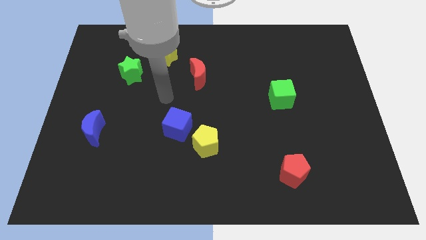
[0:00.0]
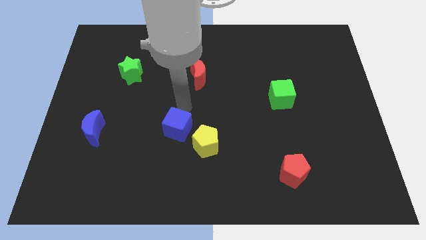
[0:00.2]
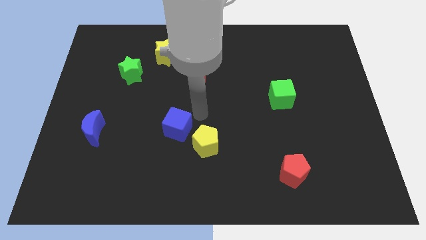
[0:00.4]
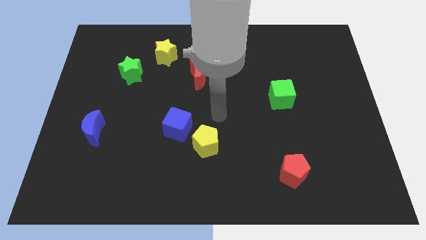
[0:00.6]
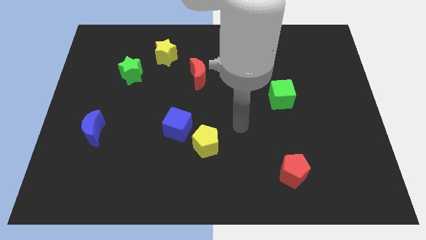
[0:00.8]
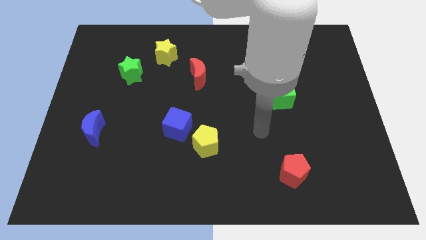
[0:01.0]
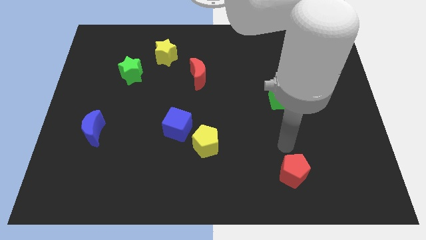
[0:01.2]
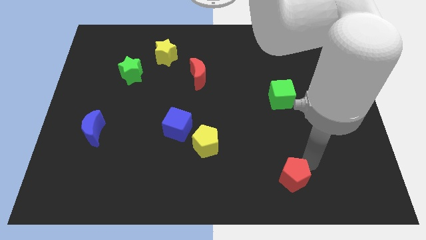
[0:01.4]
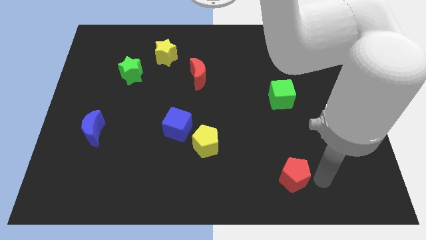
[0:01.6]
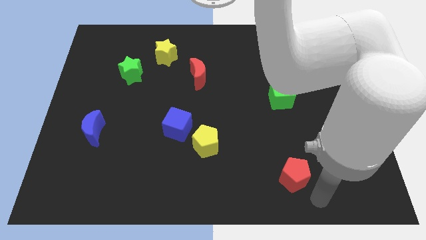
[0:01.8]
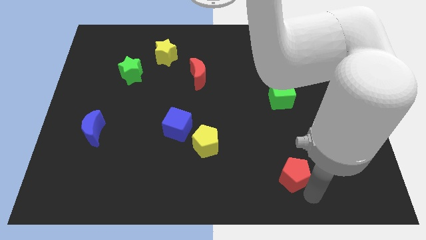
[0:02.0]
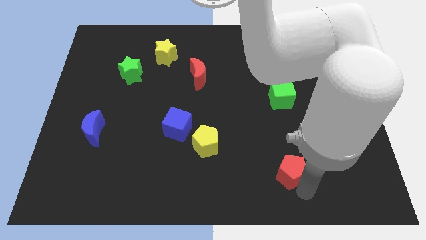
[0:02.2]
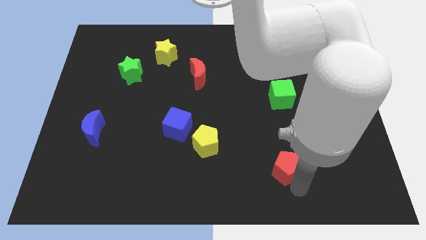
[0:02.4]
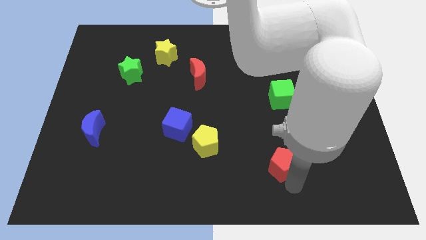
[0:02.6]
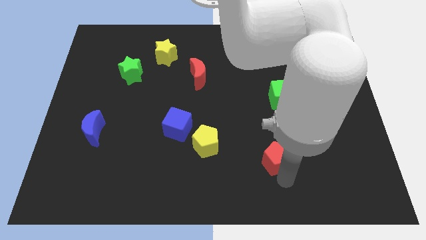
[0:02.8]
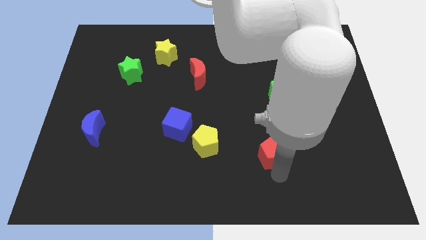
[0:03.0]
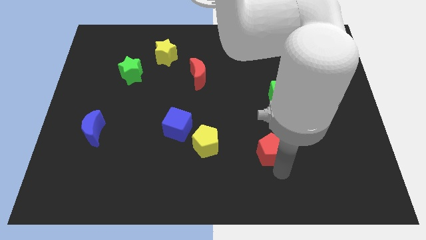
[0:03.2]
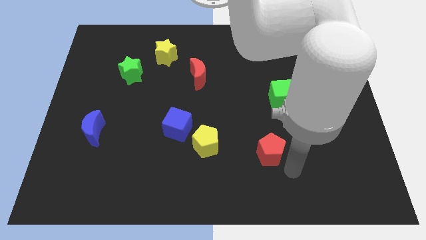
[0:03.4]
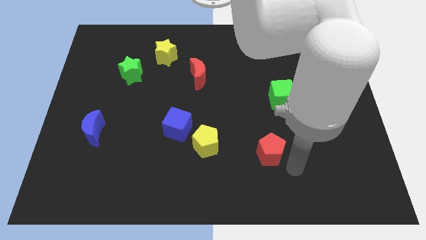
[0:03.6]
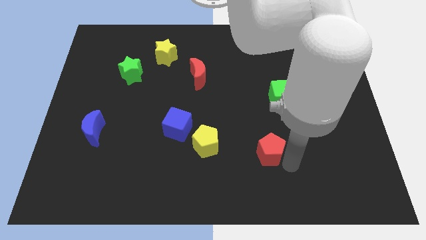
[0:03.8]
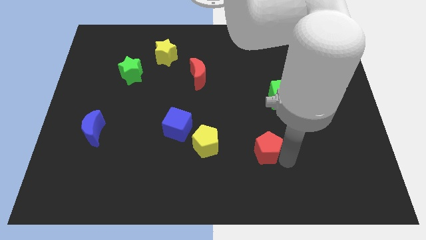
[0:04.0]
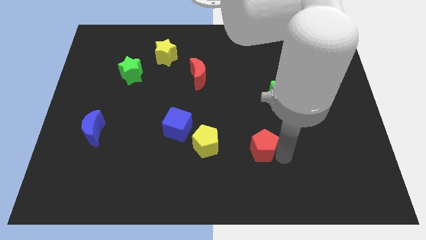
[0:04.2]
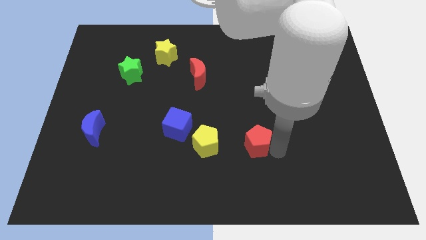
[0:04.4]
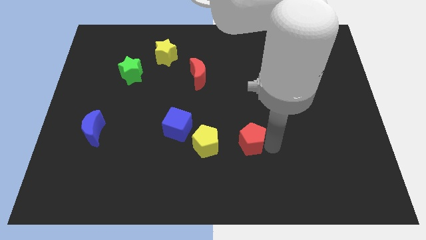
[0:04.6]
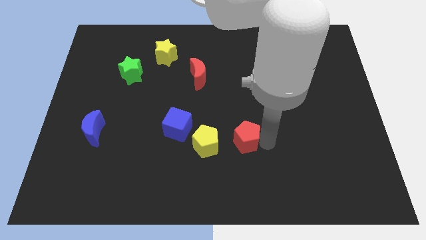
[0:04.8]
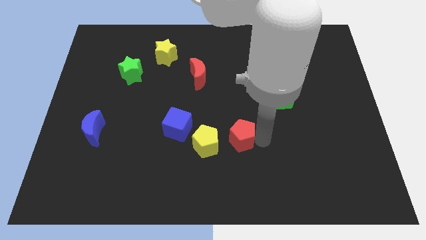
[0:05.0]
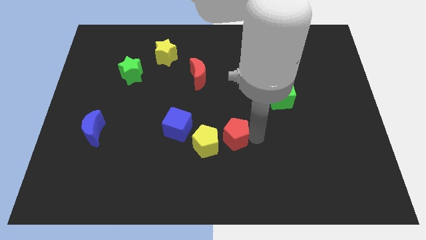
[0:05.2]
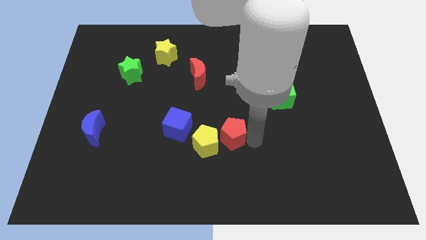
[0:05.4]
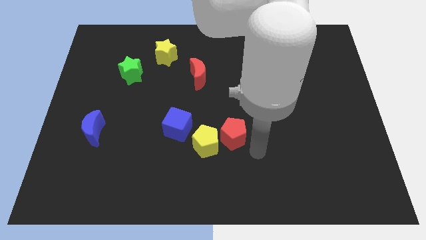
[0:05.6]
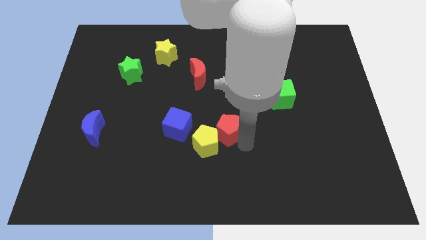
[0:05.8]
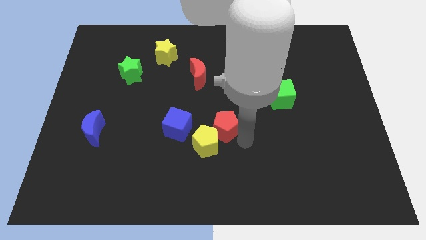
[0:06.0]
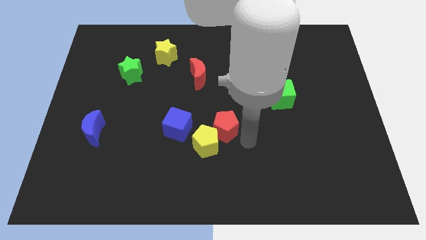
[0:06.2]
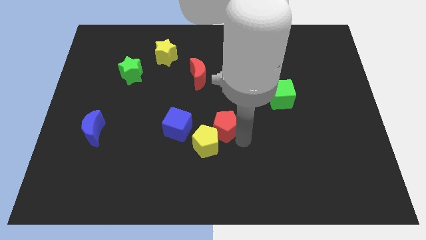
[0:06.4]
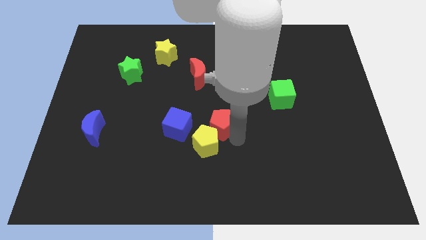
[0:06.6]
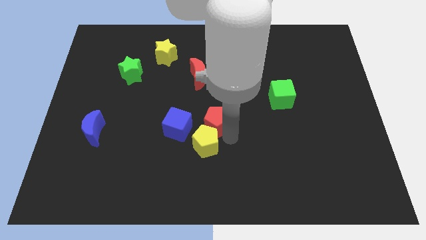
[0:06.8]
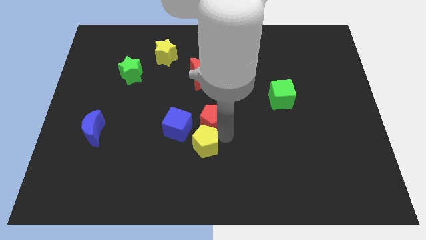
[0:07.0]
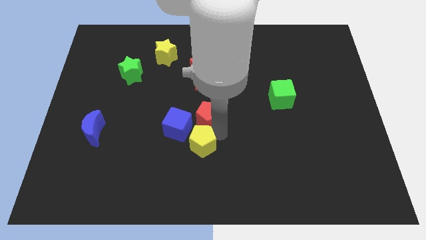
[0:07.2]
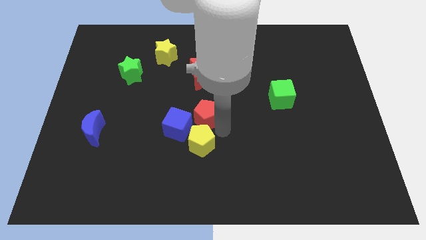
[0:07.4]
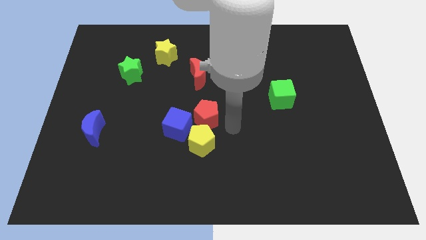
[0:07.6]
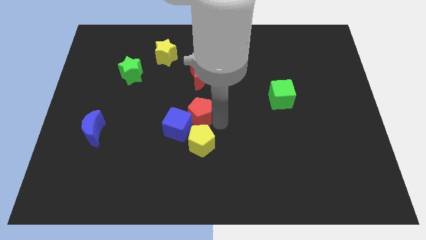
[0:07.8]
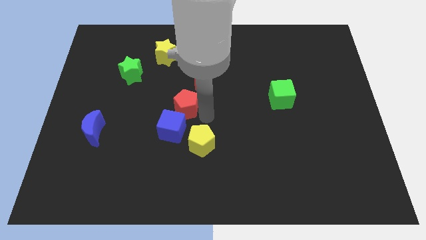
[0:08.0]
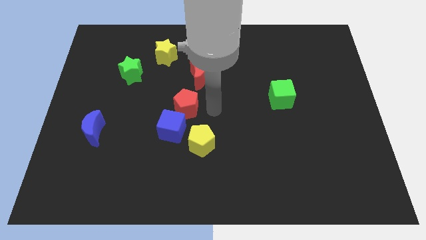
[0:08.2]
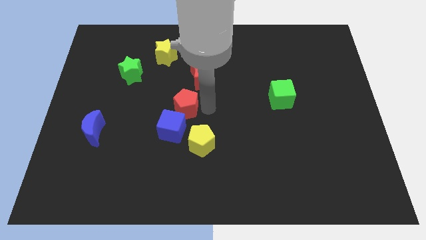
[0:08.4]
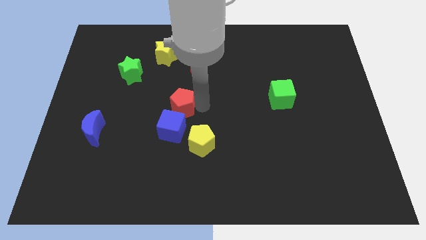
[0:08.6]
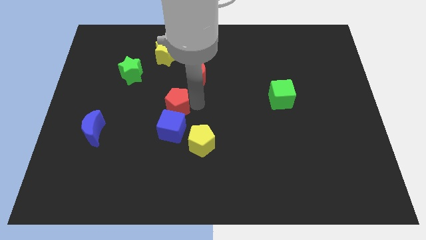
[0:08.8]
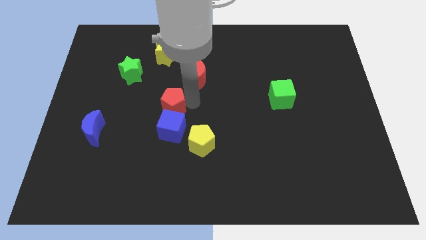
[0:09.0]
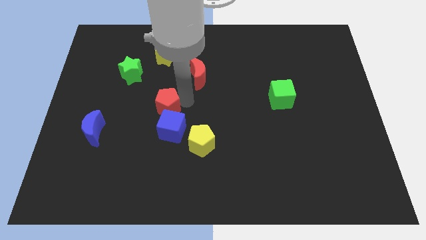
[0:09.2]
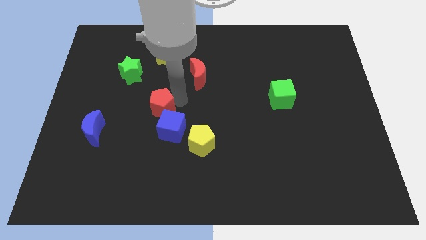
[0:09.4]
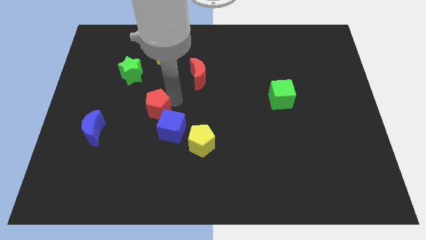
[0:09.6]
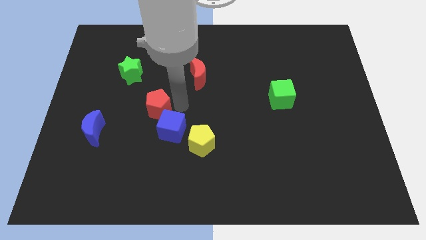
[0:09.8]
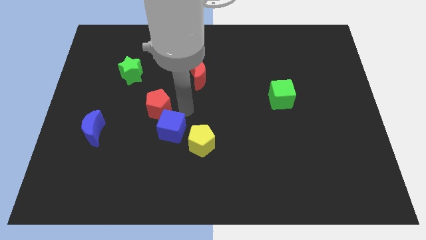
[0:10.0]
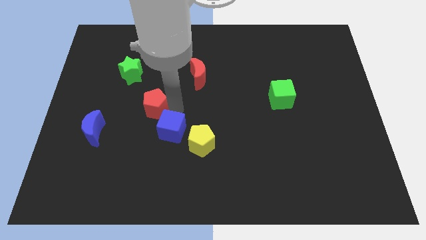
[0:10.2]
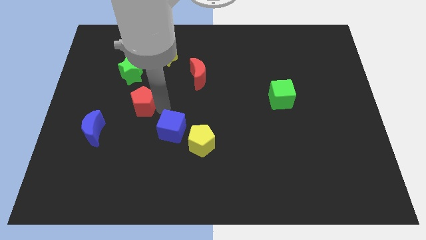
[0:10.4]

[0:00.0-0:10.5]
push the red pentagon to the bottom of the green star

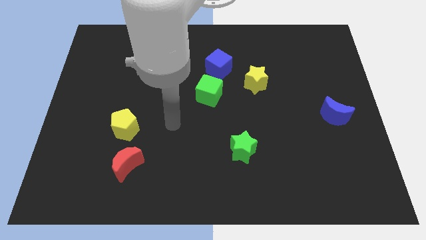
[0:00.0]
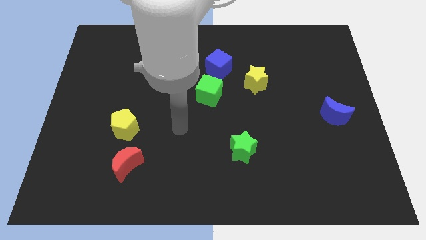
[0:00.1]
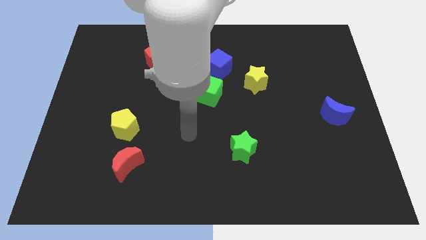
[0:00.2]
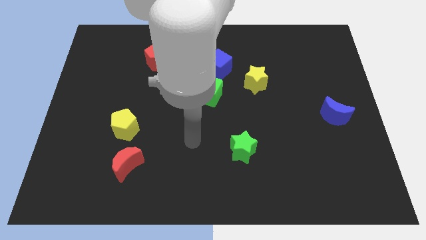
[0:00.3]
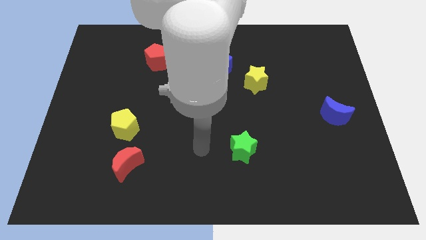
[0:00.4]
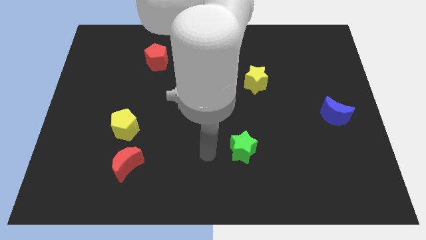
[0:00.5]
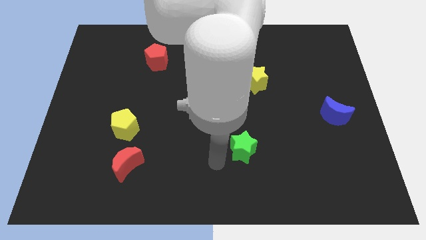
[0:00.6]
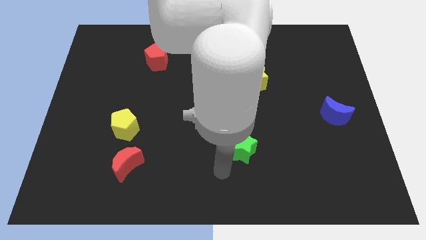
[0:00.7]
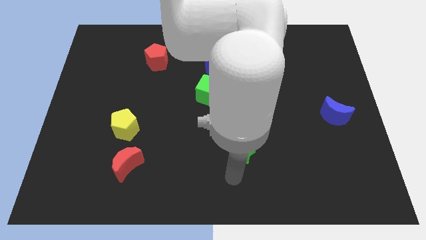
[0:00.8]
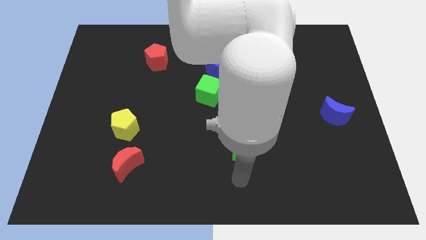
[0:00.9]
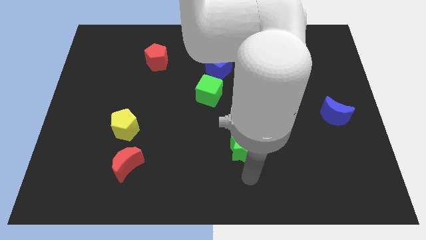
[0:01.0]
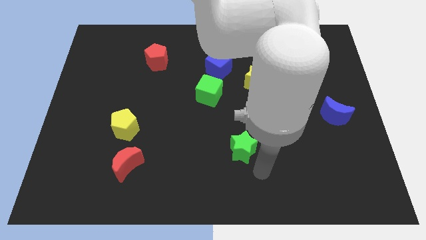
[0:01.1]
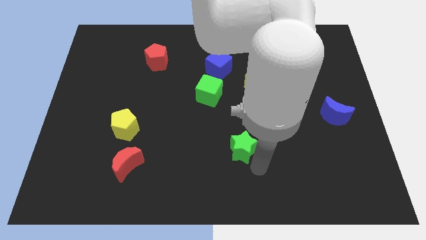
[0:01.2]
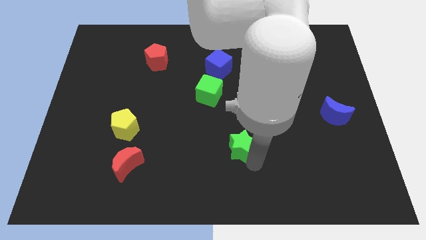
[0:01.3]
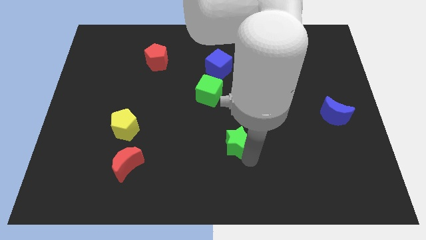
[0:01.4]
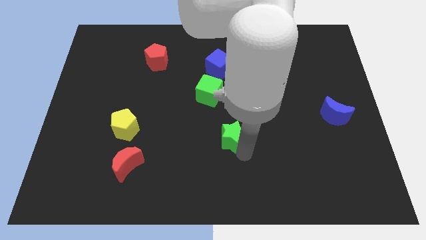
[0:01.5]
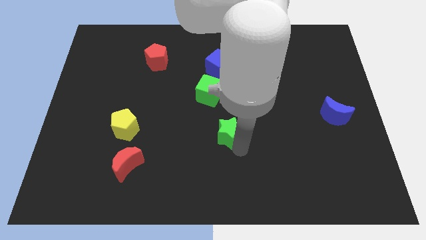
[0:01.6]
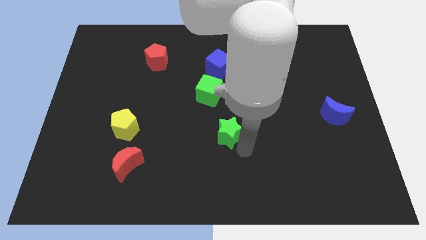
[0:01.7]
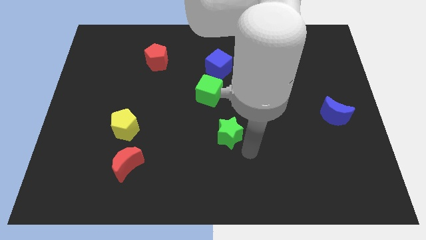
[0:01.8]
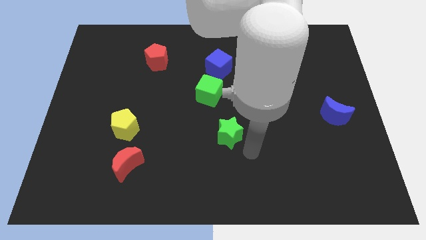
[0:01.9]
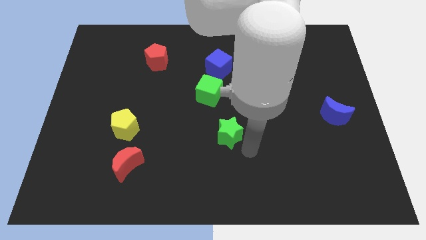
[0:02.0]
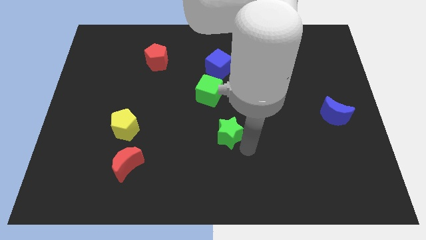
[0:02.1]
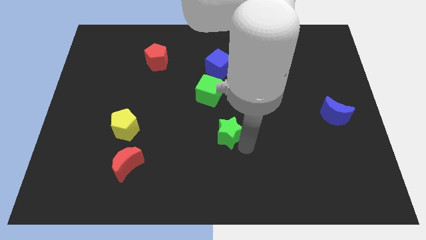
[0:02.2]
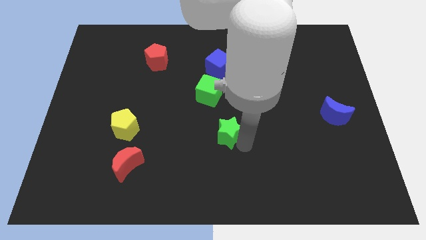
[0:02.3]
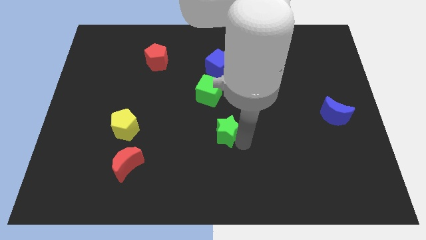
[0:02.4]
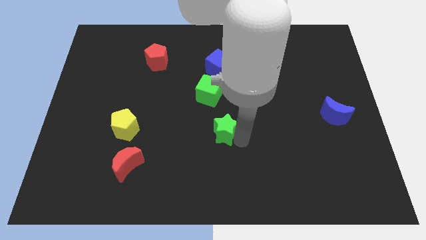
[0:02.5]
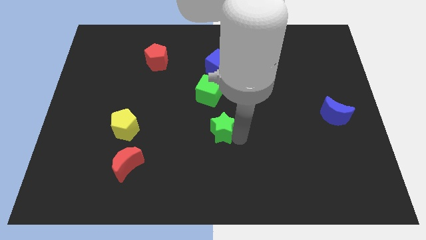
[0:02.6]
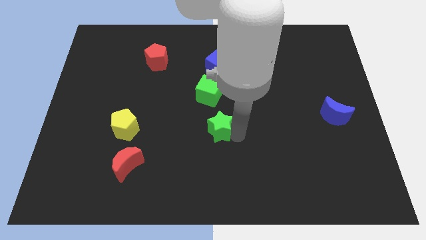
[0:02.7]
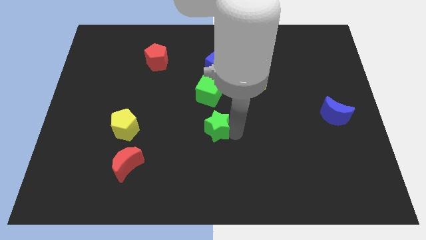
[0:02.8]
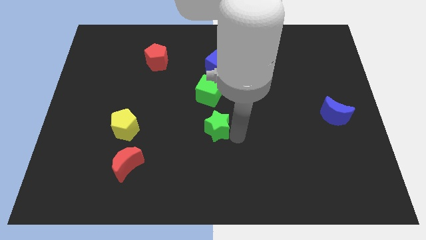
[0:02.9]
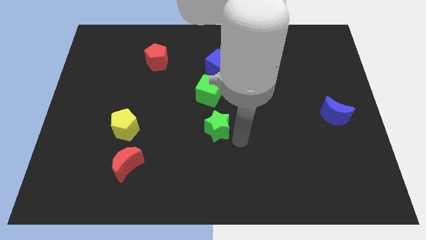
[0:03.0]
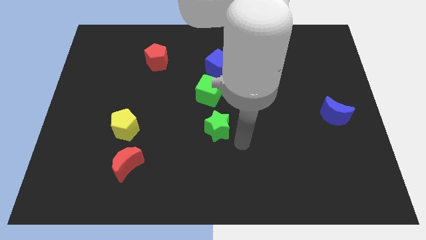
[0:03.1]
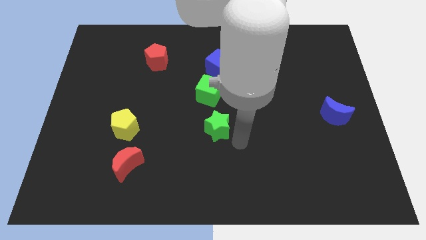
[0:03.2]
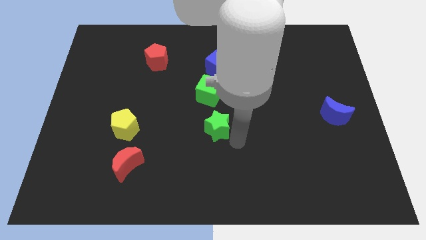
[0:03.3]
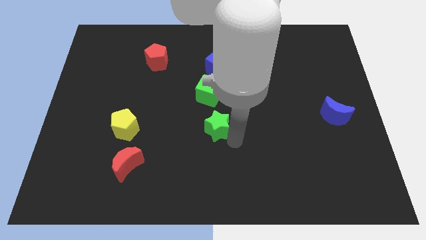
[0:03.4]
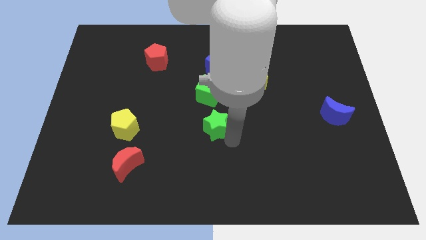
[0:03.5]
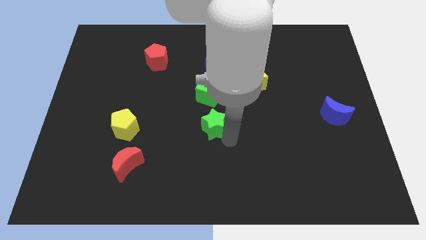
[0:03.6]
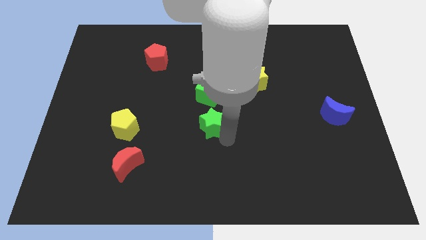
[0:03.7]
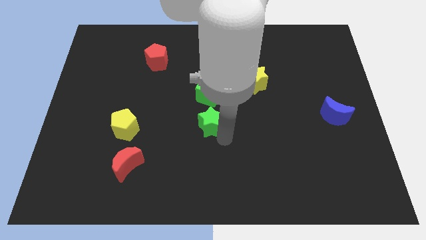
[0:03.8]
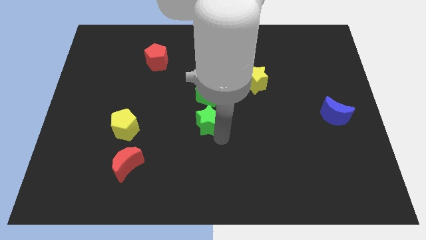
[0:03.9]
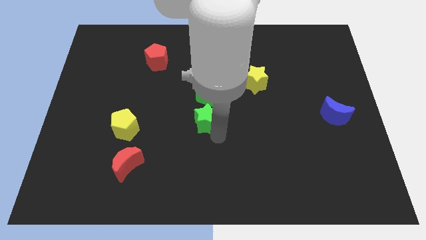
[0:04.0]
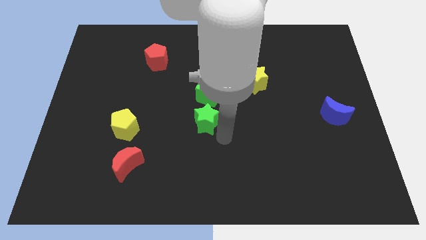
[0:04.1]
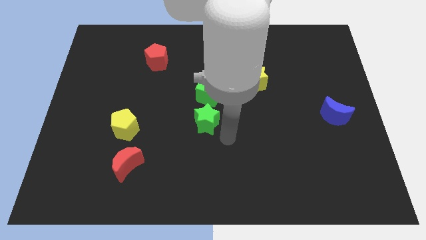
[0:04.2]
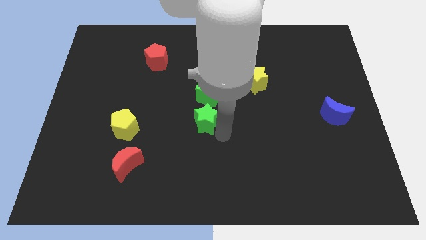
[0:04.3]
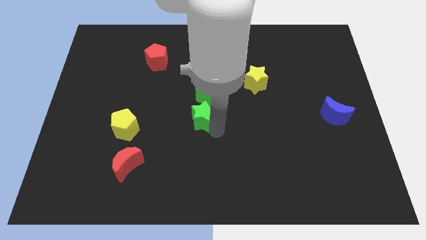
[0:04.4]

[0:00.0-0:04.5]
push the green star to the bottom left side of the green cube
